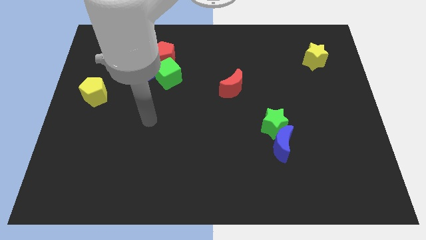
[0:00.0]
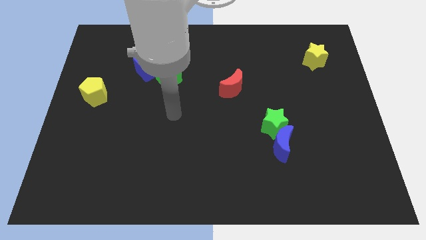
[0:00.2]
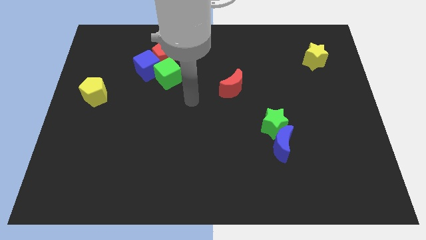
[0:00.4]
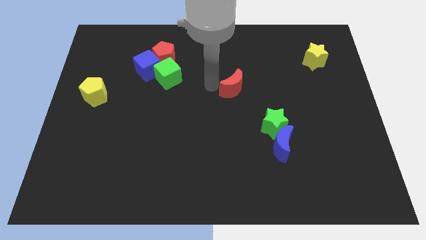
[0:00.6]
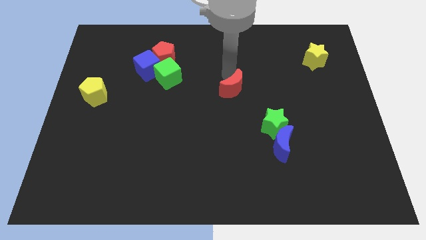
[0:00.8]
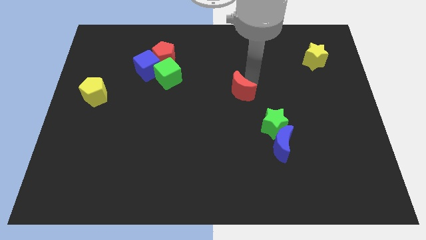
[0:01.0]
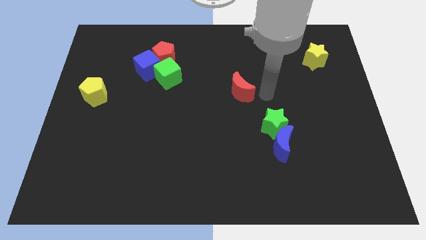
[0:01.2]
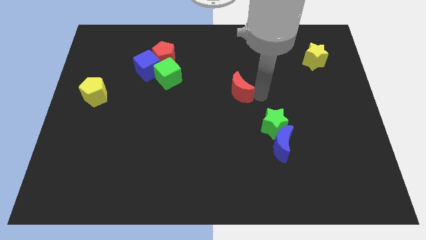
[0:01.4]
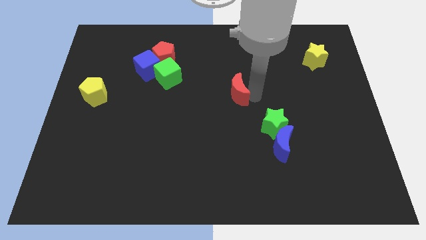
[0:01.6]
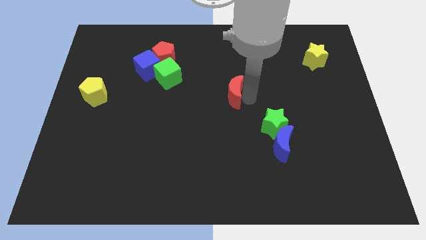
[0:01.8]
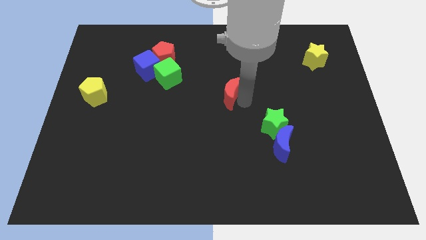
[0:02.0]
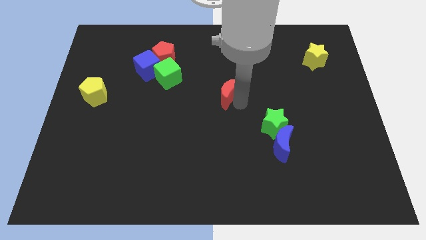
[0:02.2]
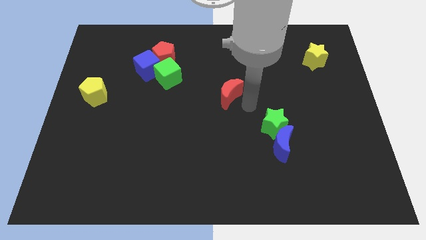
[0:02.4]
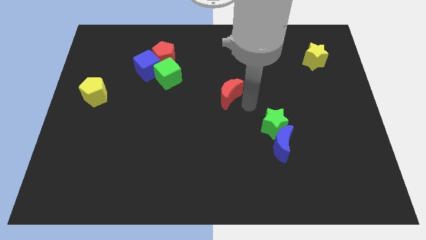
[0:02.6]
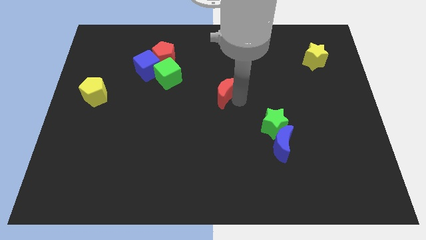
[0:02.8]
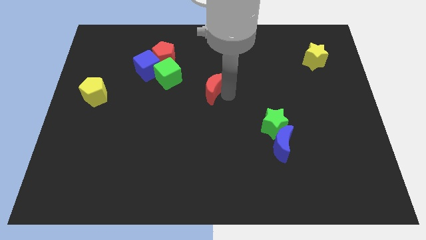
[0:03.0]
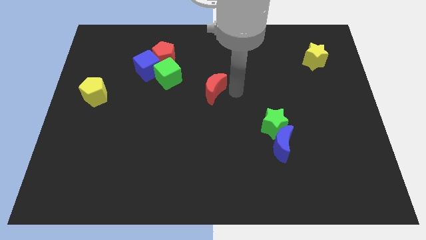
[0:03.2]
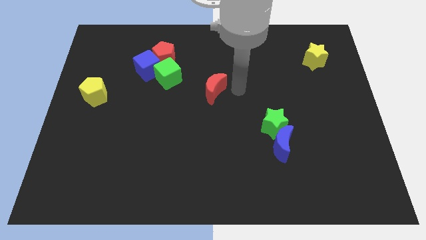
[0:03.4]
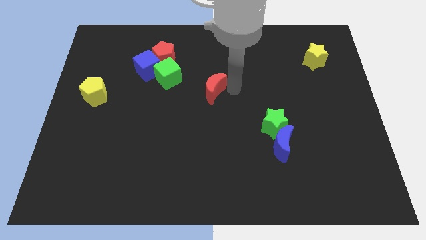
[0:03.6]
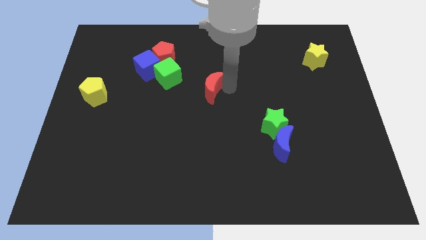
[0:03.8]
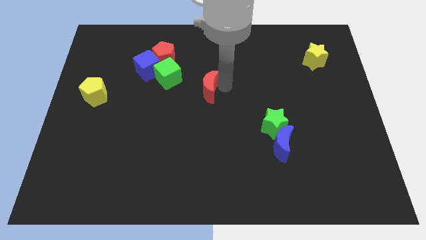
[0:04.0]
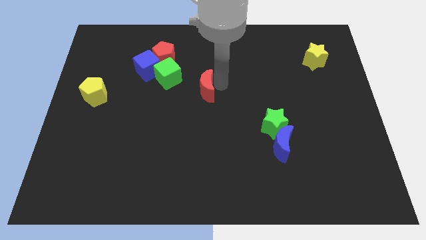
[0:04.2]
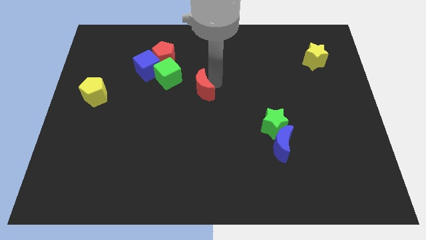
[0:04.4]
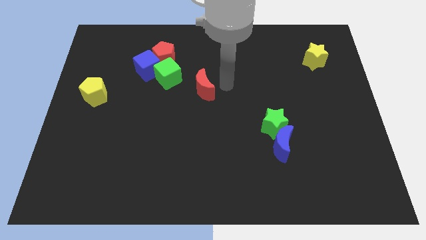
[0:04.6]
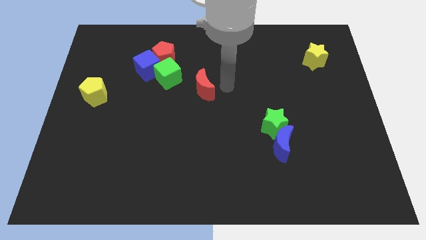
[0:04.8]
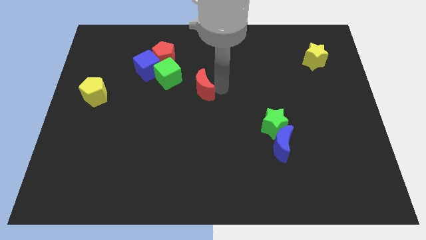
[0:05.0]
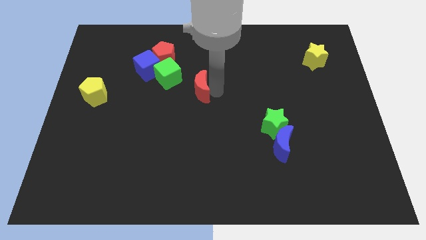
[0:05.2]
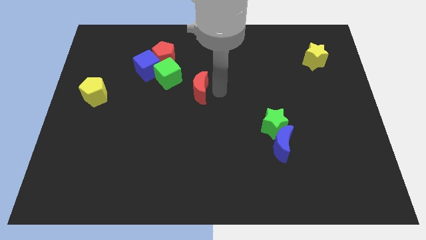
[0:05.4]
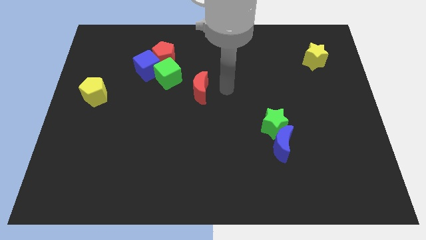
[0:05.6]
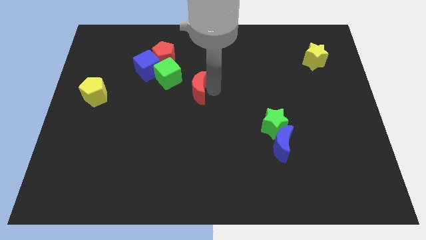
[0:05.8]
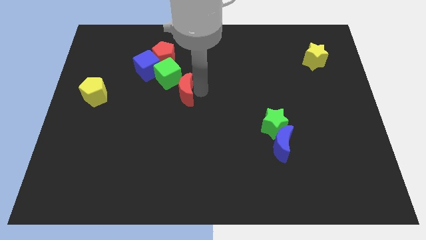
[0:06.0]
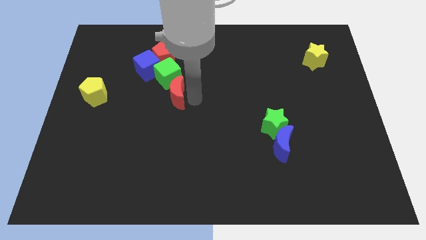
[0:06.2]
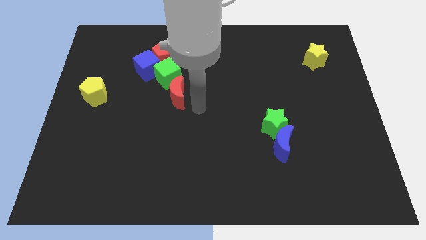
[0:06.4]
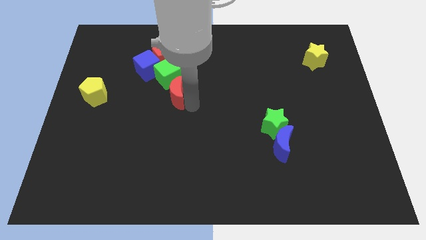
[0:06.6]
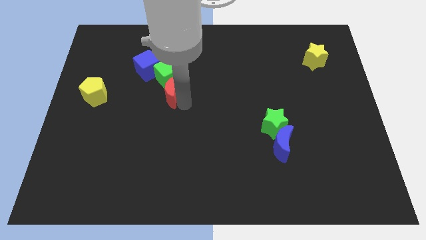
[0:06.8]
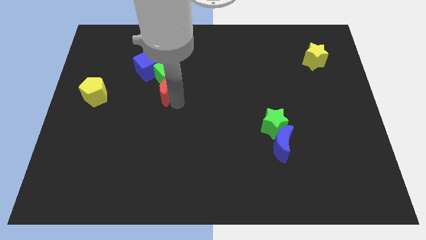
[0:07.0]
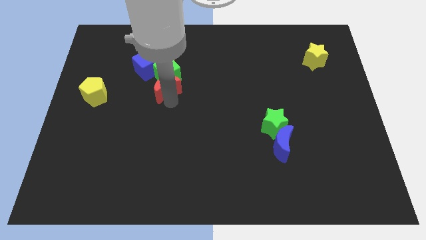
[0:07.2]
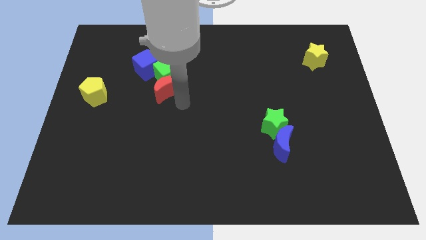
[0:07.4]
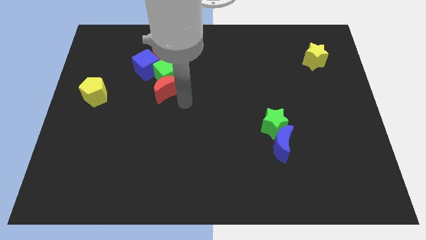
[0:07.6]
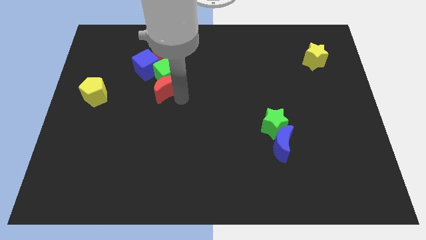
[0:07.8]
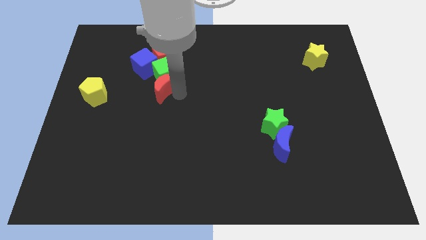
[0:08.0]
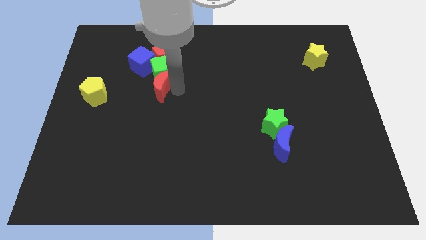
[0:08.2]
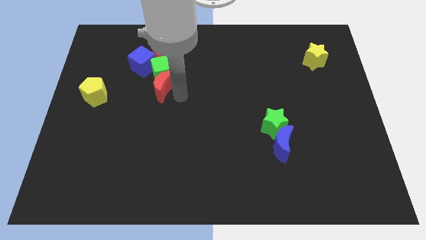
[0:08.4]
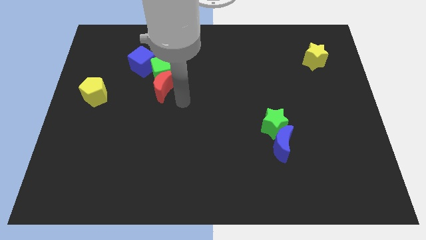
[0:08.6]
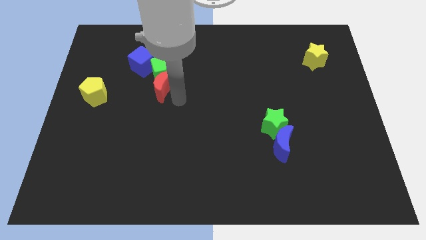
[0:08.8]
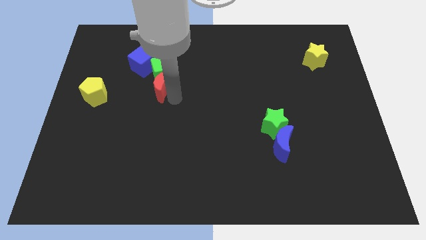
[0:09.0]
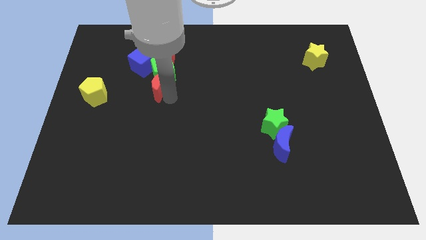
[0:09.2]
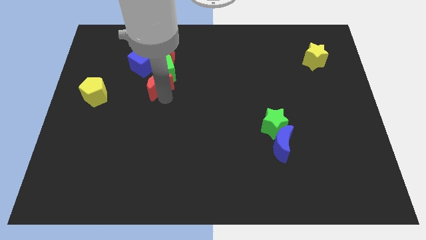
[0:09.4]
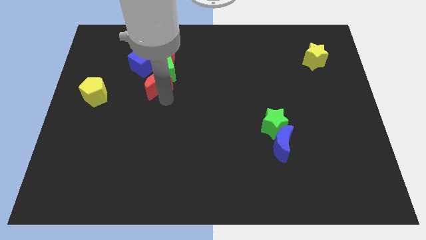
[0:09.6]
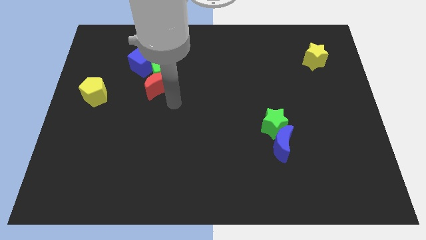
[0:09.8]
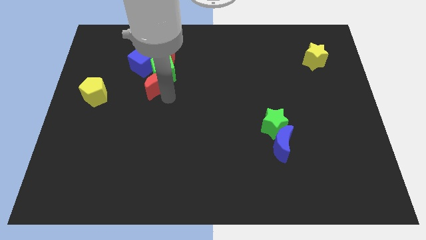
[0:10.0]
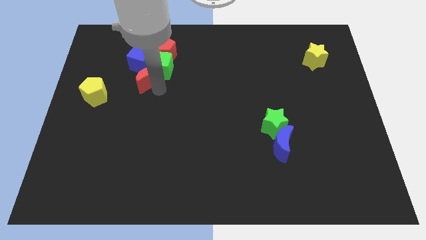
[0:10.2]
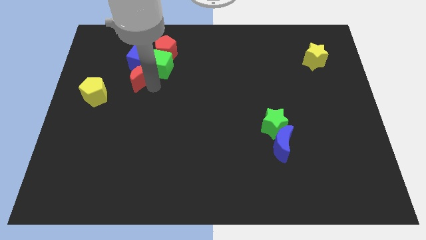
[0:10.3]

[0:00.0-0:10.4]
put the red moon close to the blue cube

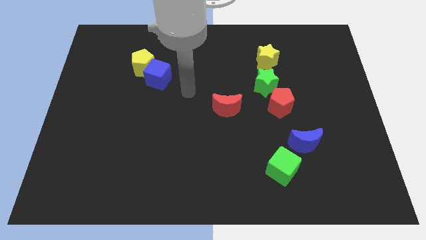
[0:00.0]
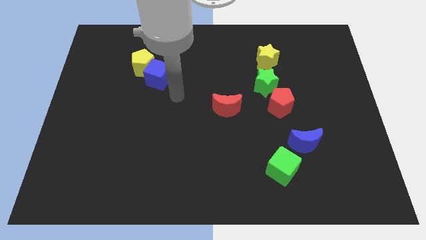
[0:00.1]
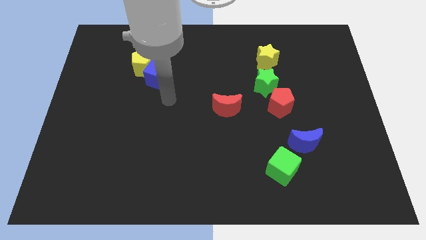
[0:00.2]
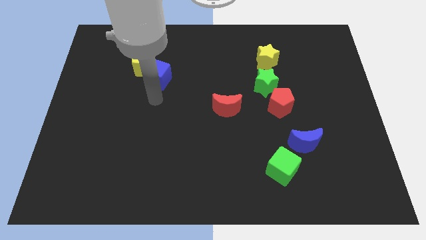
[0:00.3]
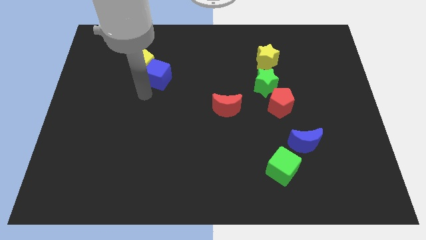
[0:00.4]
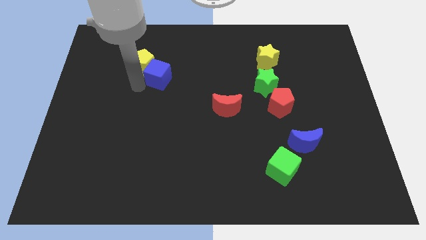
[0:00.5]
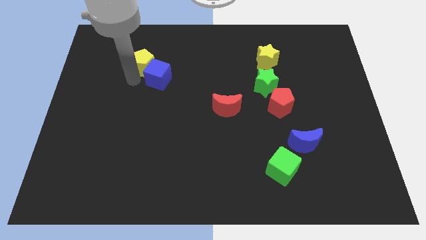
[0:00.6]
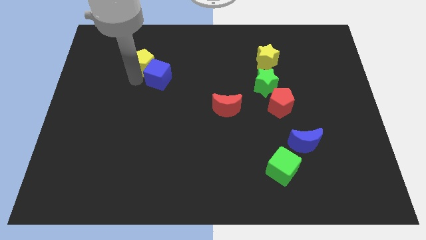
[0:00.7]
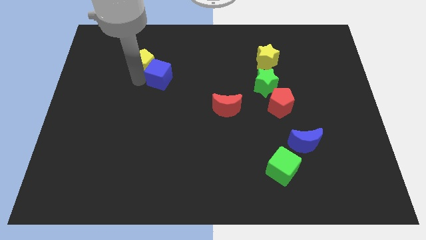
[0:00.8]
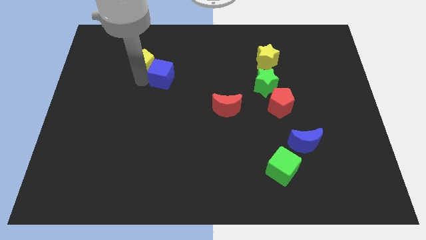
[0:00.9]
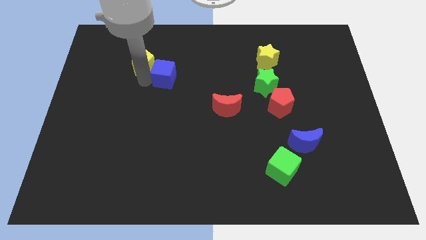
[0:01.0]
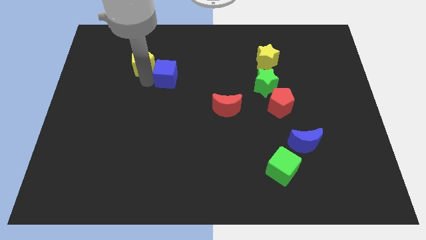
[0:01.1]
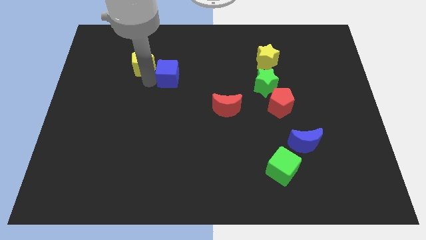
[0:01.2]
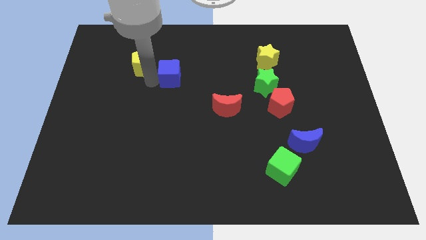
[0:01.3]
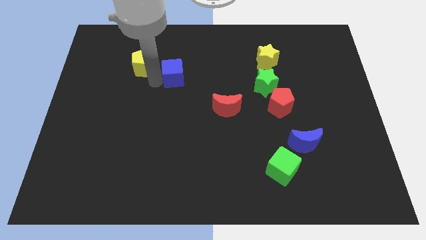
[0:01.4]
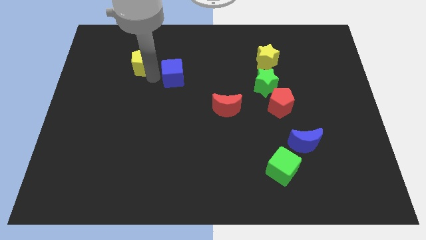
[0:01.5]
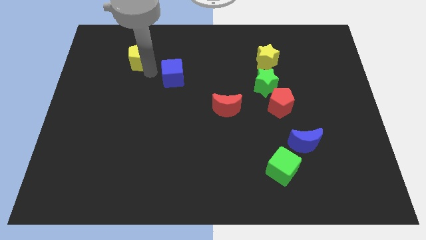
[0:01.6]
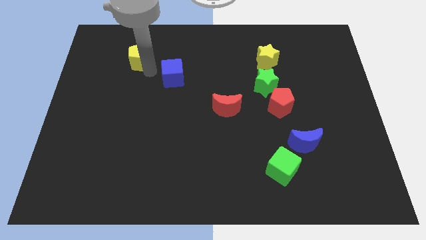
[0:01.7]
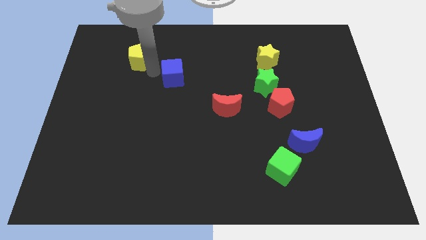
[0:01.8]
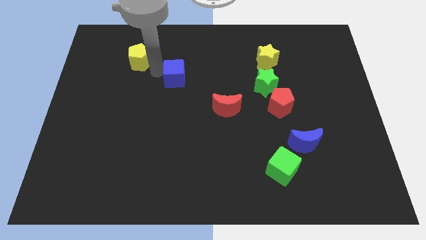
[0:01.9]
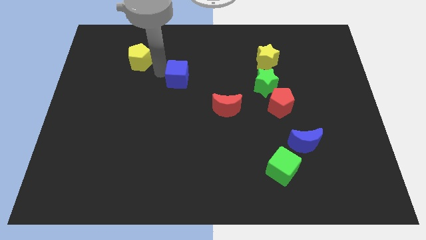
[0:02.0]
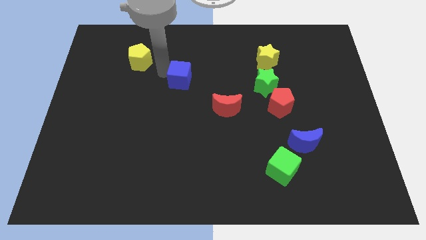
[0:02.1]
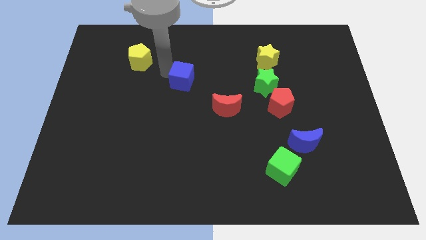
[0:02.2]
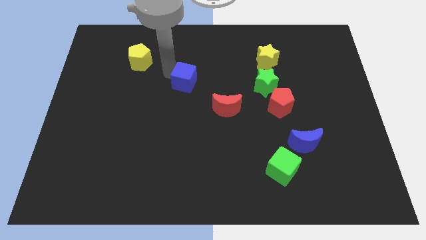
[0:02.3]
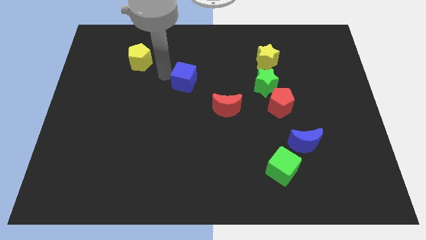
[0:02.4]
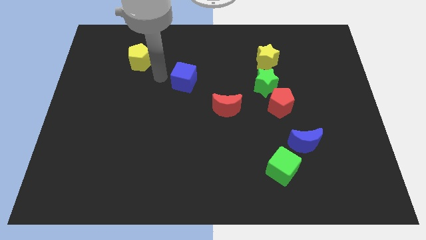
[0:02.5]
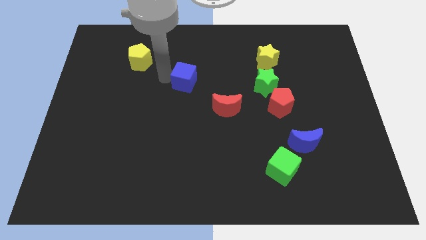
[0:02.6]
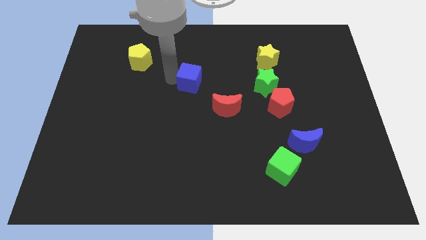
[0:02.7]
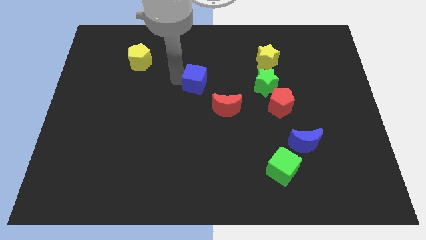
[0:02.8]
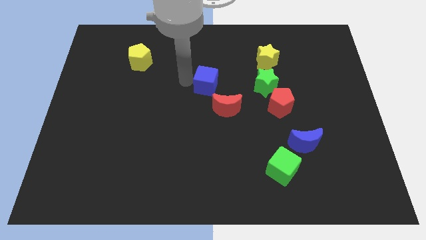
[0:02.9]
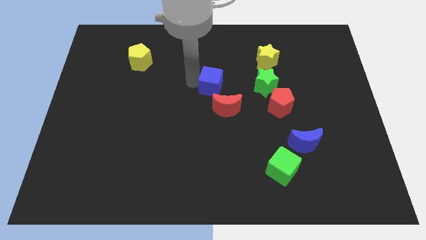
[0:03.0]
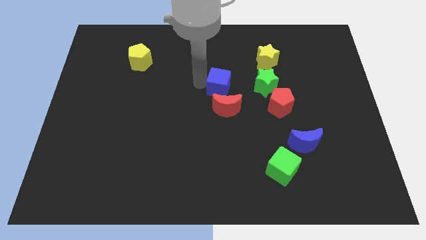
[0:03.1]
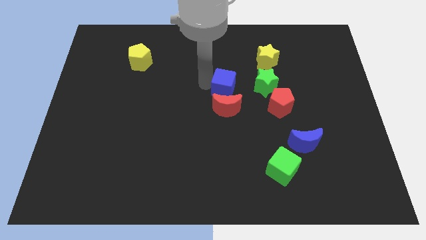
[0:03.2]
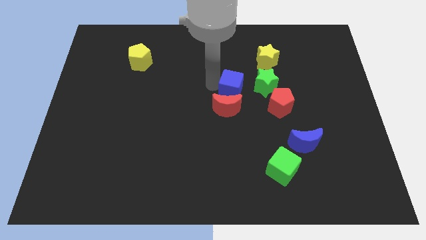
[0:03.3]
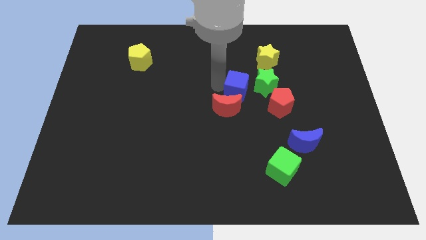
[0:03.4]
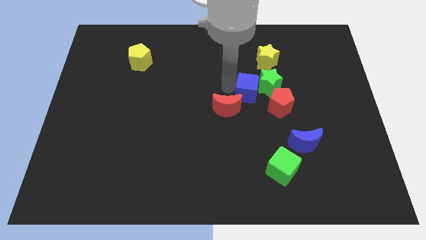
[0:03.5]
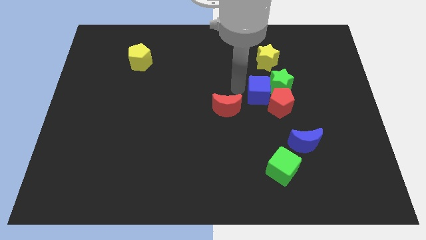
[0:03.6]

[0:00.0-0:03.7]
move the blue cube towards the red pentagon
